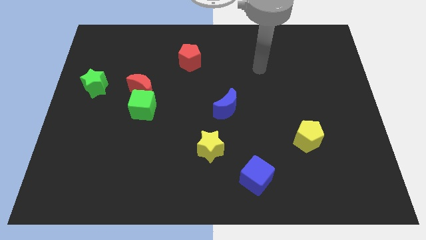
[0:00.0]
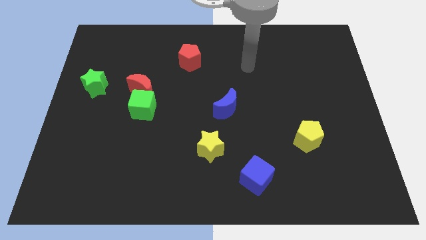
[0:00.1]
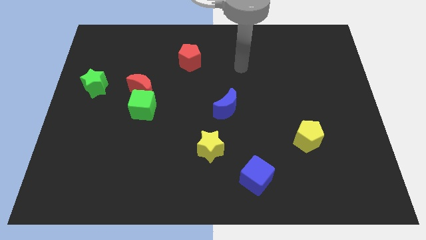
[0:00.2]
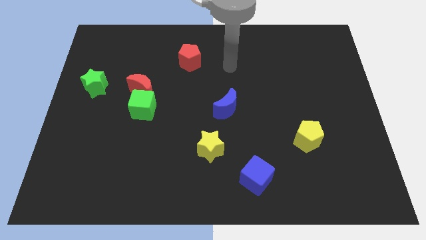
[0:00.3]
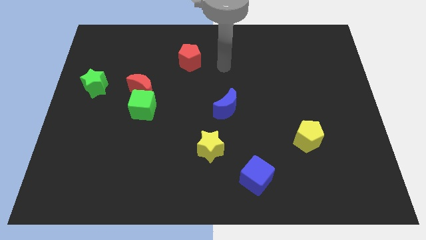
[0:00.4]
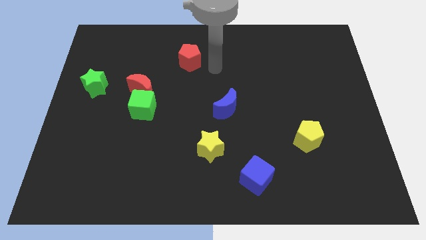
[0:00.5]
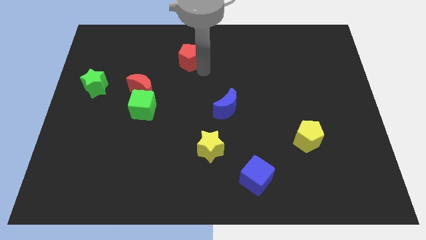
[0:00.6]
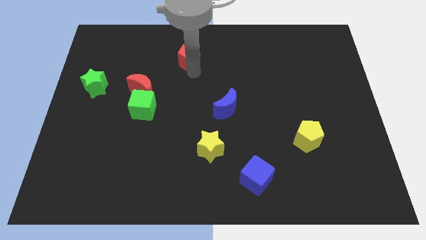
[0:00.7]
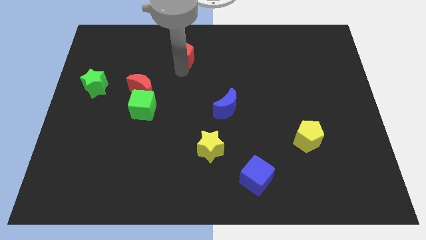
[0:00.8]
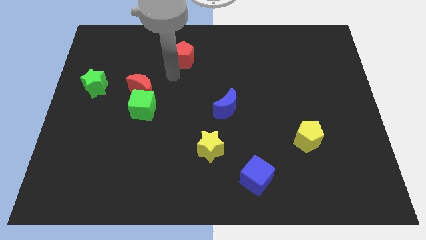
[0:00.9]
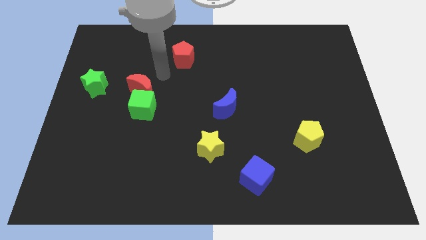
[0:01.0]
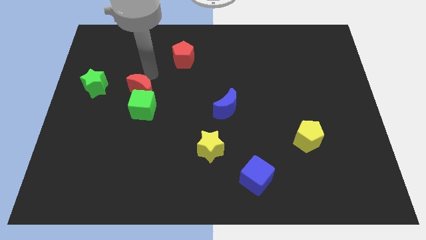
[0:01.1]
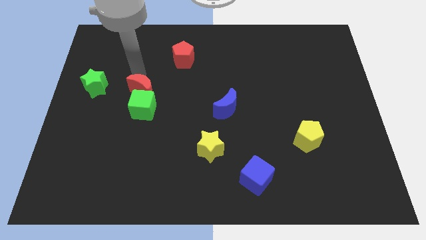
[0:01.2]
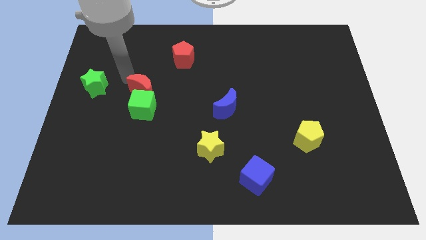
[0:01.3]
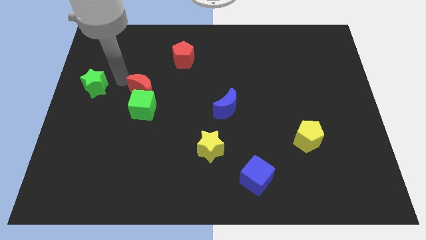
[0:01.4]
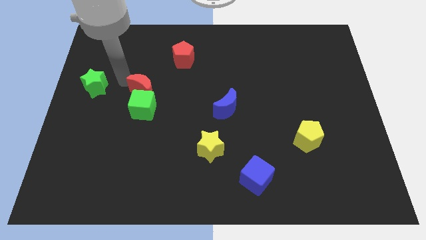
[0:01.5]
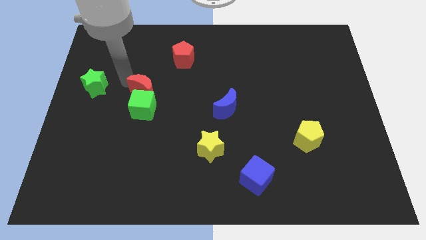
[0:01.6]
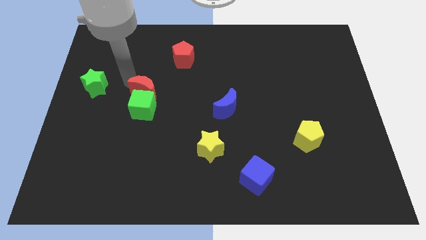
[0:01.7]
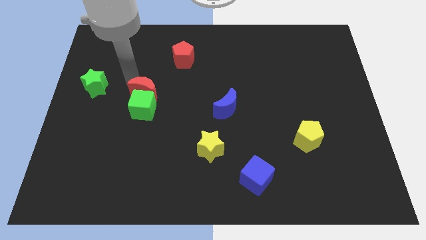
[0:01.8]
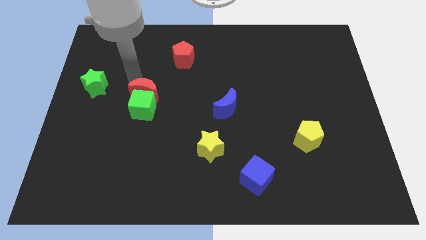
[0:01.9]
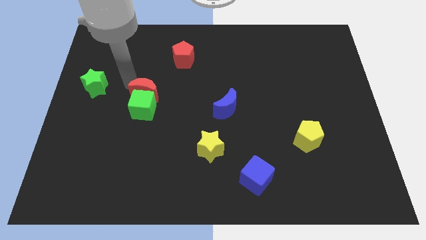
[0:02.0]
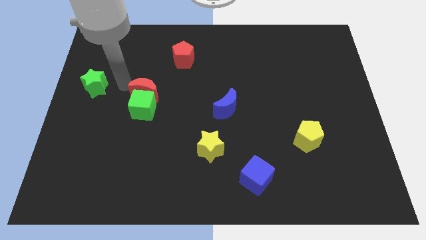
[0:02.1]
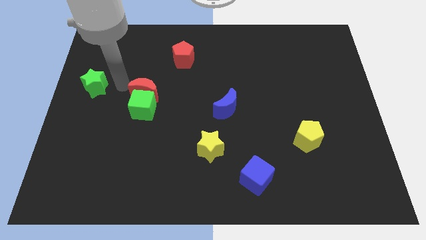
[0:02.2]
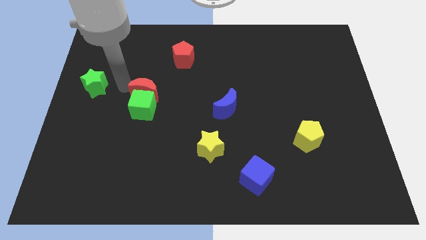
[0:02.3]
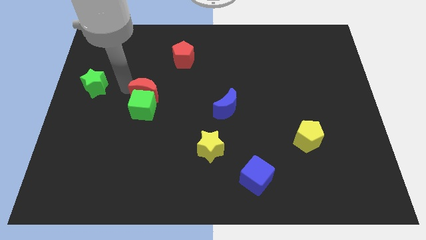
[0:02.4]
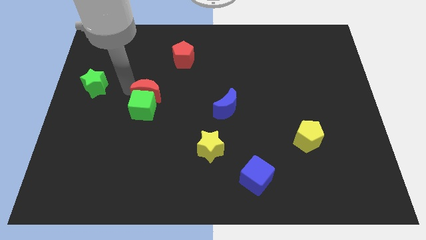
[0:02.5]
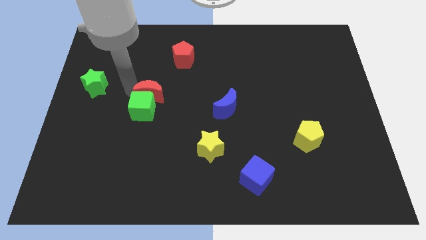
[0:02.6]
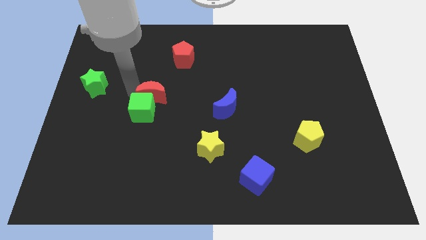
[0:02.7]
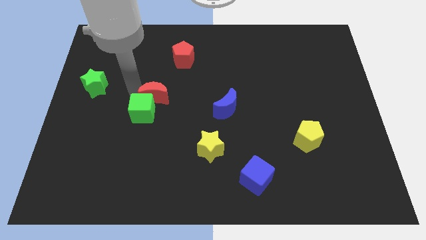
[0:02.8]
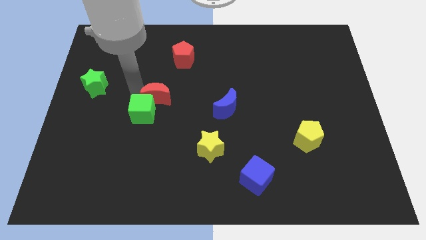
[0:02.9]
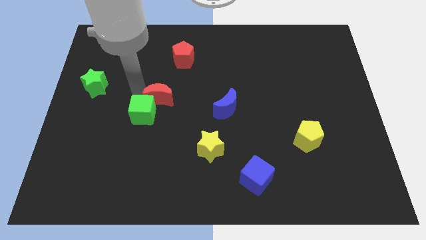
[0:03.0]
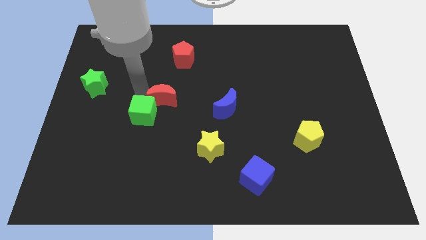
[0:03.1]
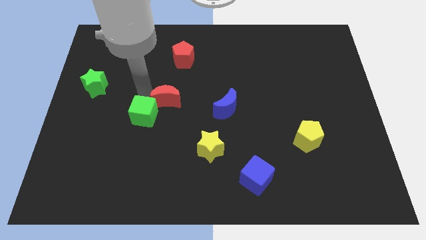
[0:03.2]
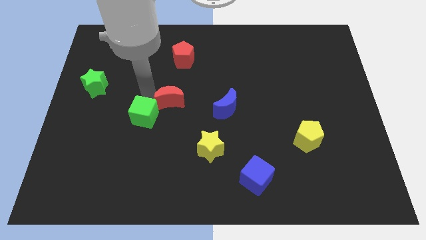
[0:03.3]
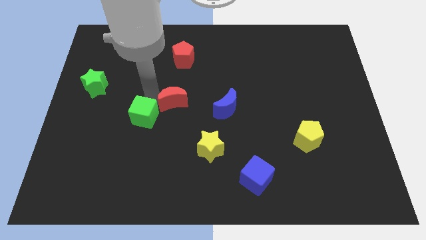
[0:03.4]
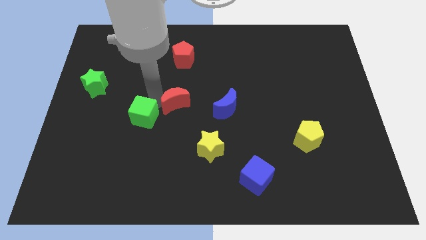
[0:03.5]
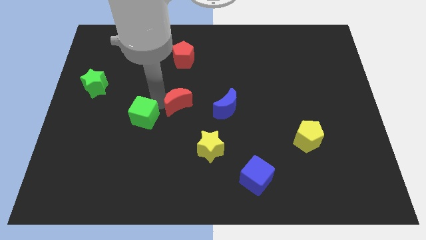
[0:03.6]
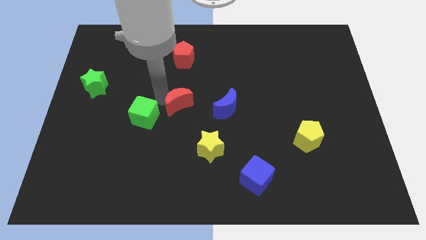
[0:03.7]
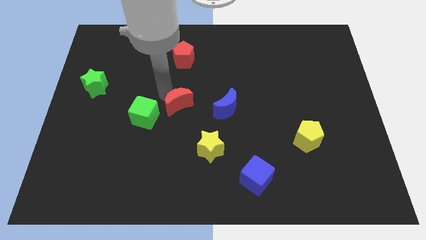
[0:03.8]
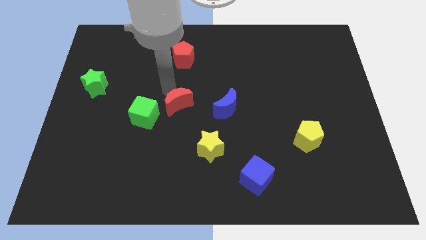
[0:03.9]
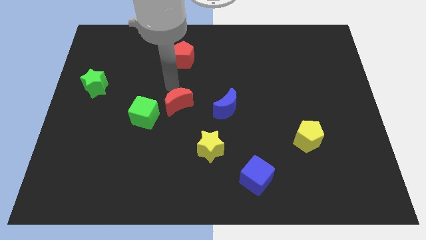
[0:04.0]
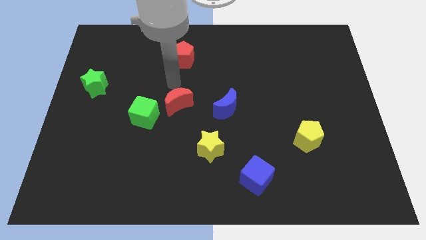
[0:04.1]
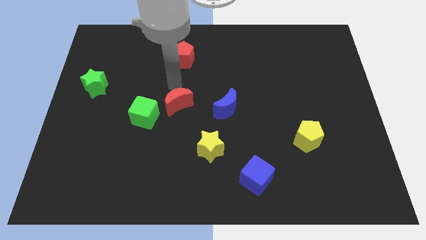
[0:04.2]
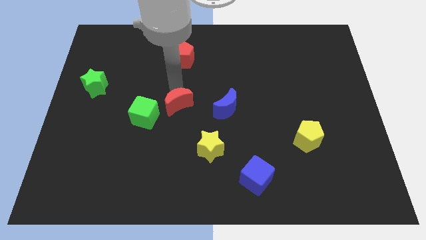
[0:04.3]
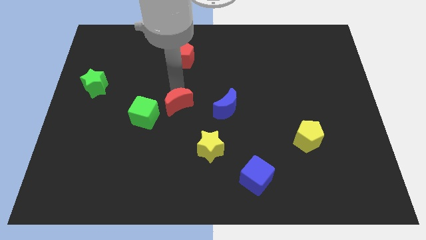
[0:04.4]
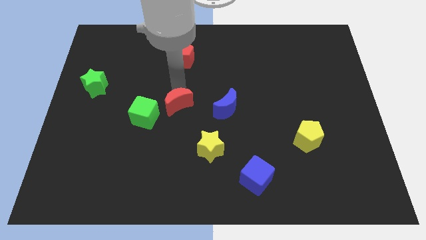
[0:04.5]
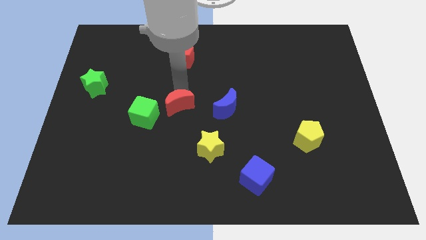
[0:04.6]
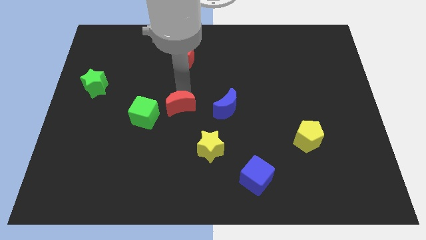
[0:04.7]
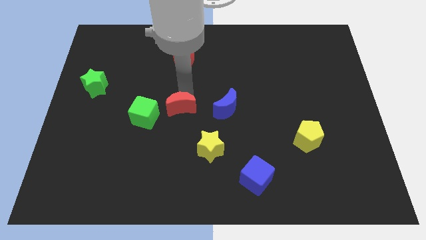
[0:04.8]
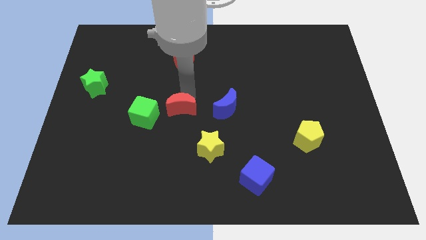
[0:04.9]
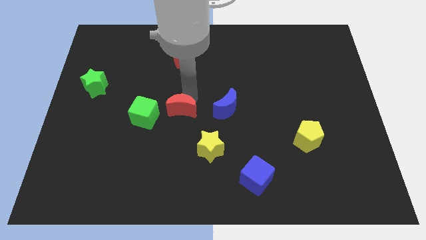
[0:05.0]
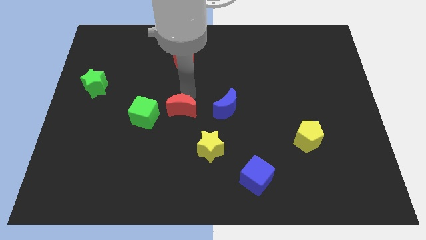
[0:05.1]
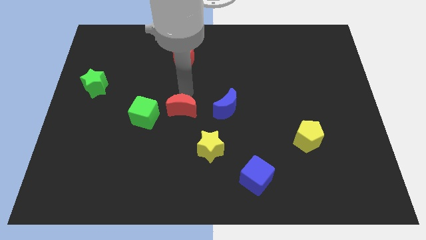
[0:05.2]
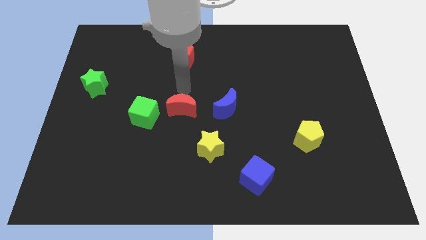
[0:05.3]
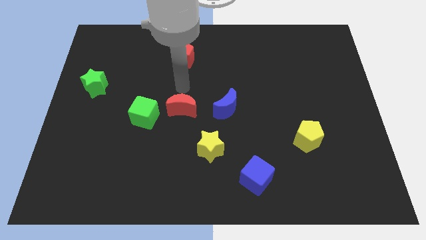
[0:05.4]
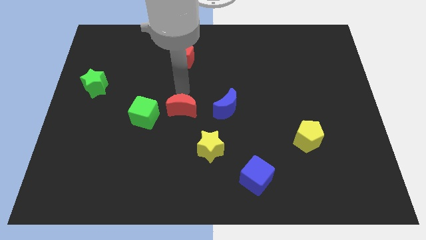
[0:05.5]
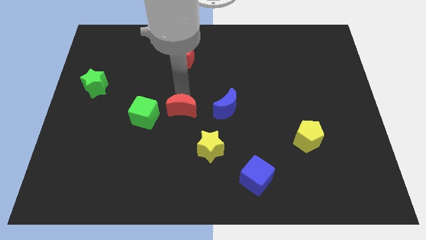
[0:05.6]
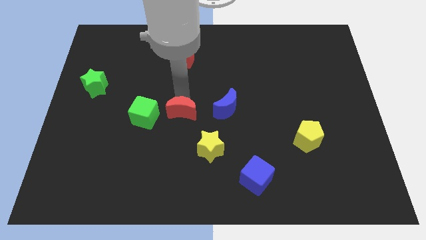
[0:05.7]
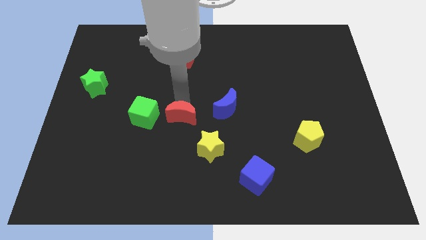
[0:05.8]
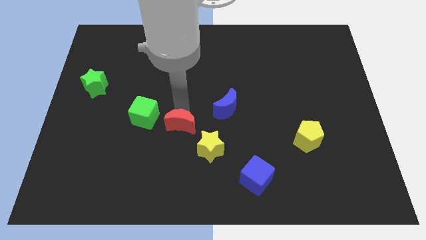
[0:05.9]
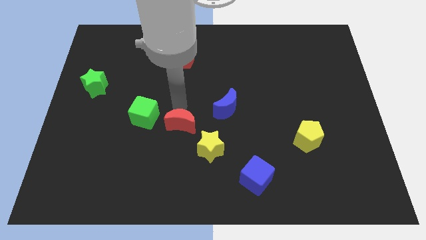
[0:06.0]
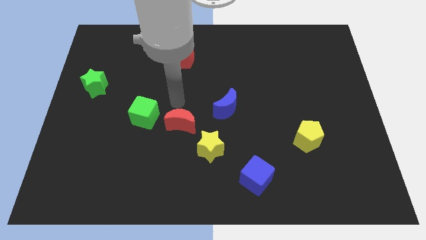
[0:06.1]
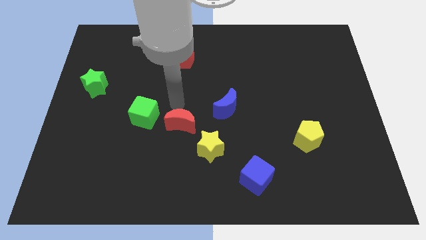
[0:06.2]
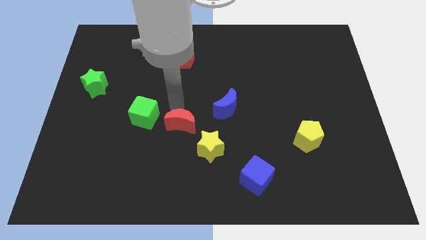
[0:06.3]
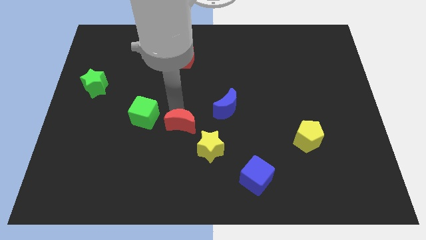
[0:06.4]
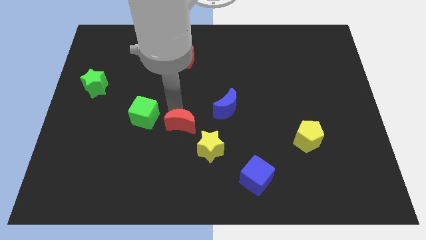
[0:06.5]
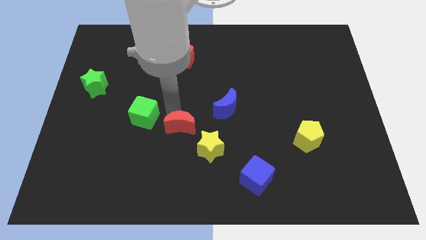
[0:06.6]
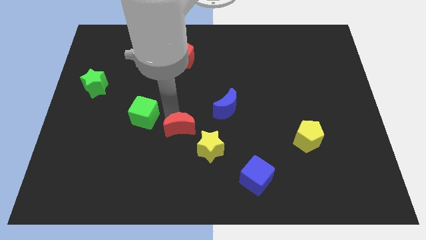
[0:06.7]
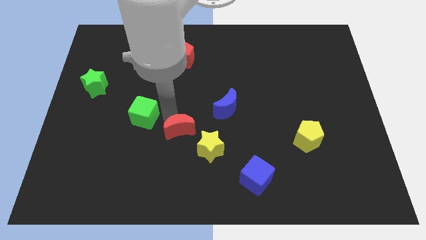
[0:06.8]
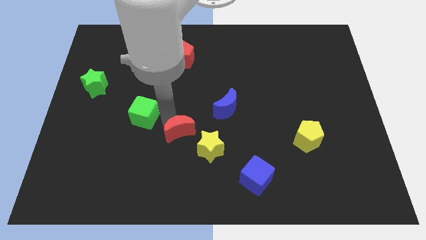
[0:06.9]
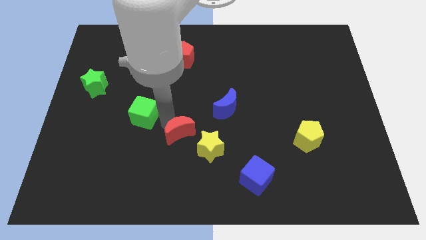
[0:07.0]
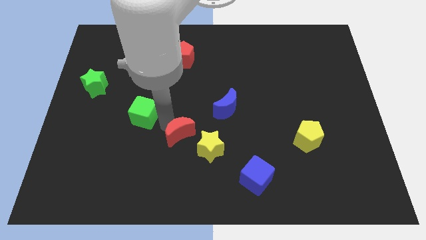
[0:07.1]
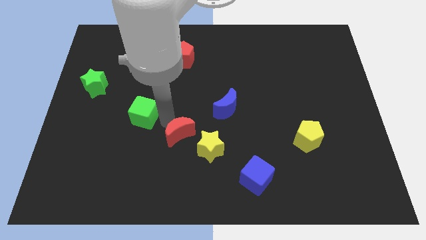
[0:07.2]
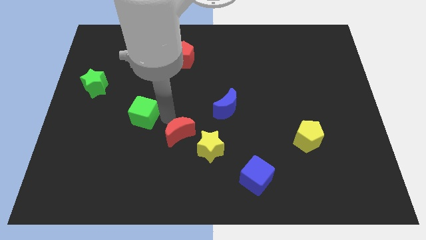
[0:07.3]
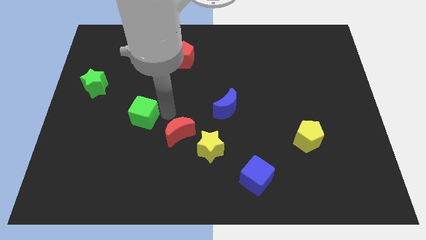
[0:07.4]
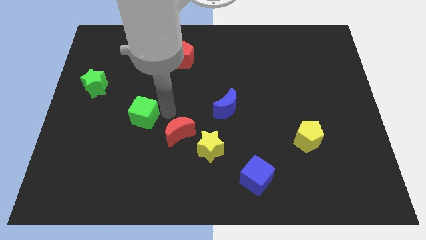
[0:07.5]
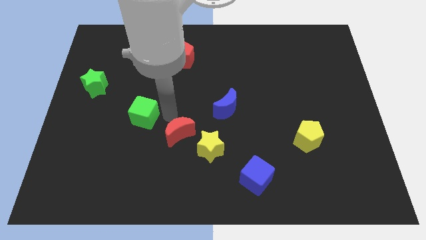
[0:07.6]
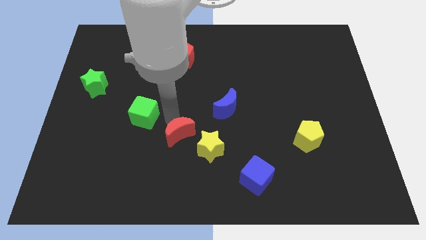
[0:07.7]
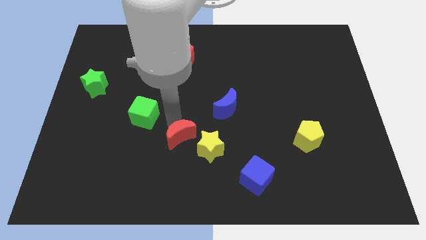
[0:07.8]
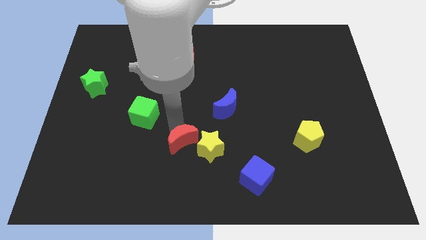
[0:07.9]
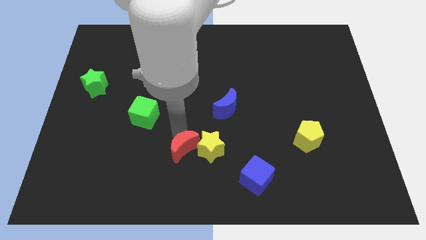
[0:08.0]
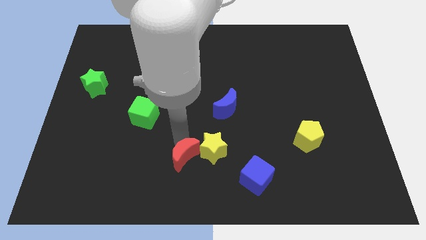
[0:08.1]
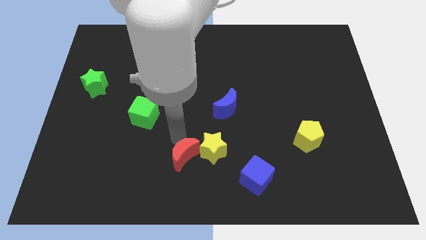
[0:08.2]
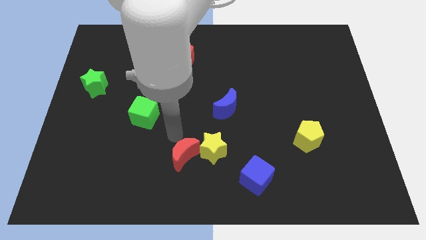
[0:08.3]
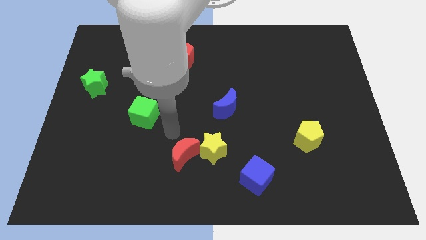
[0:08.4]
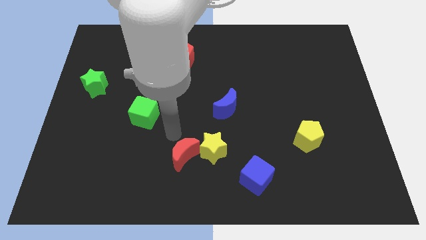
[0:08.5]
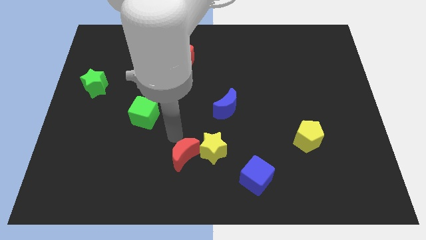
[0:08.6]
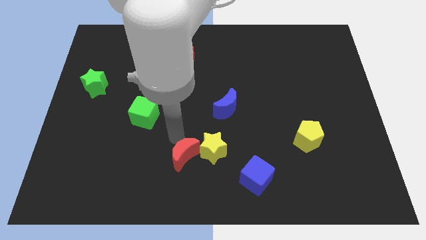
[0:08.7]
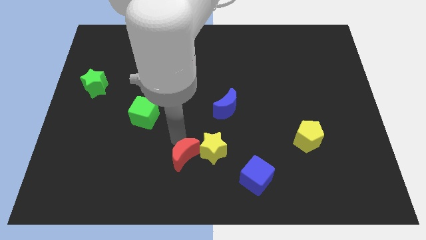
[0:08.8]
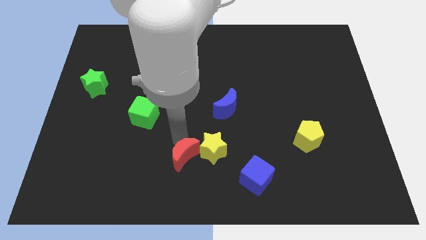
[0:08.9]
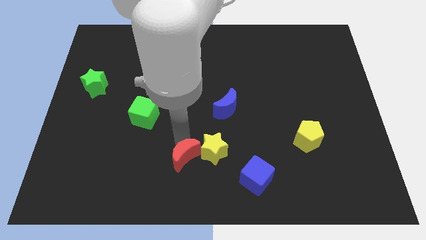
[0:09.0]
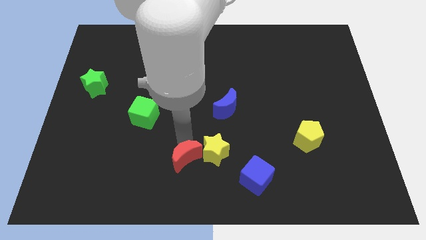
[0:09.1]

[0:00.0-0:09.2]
slide the red moon to the bottom
